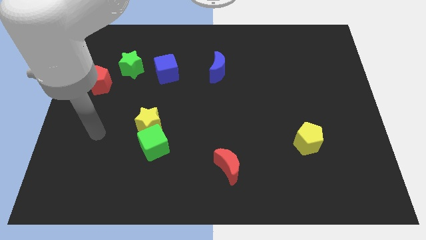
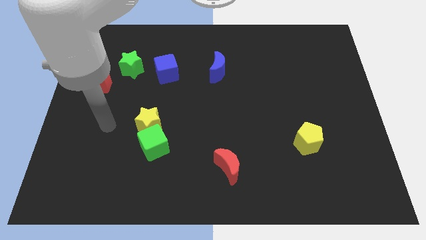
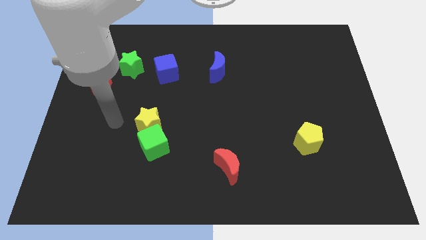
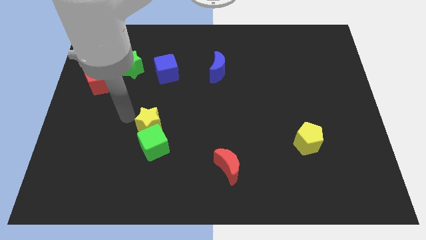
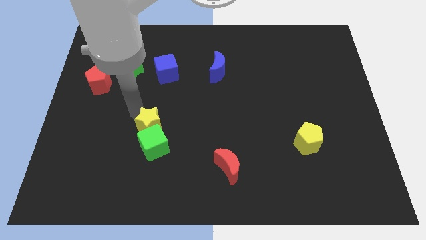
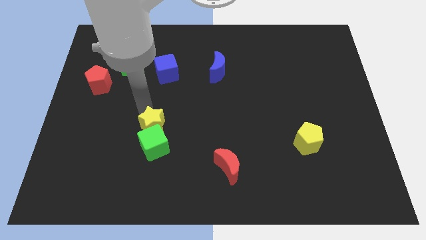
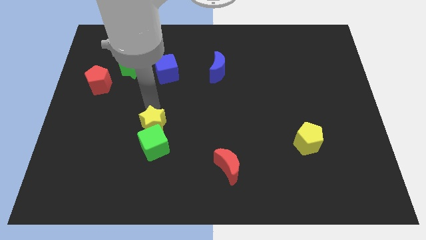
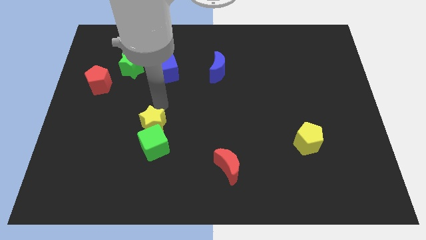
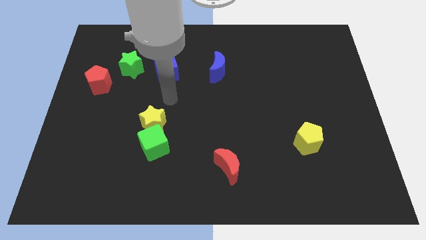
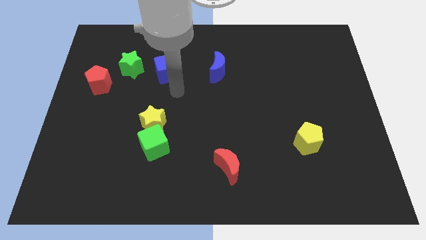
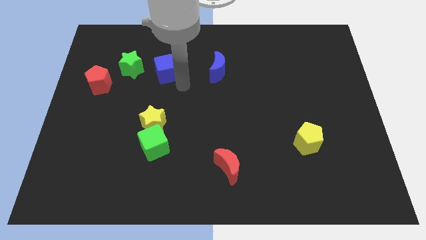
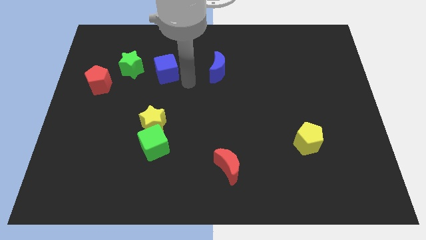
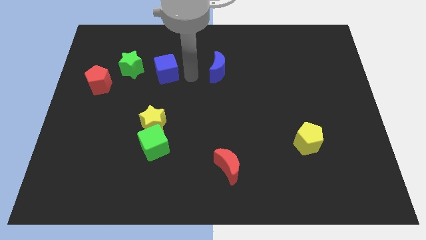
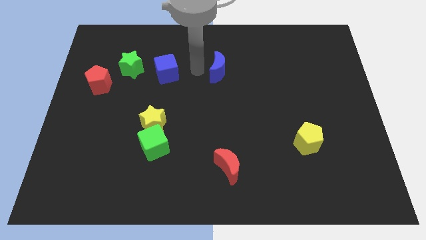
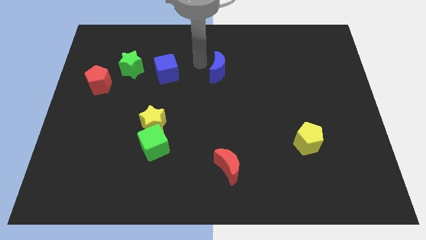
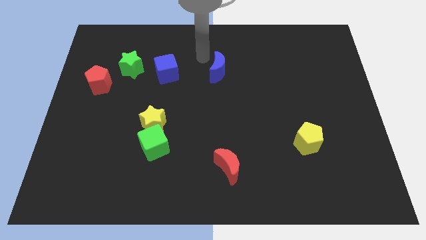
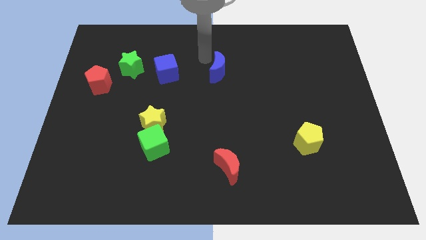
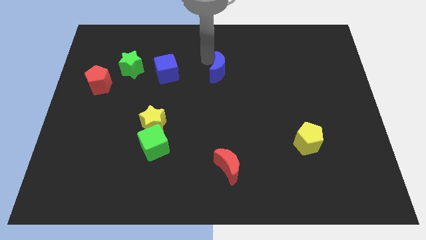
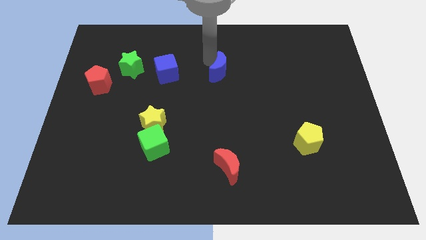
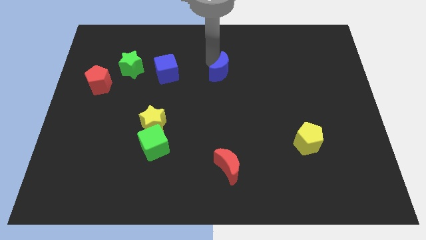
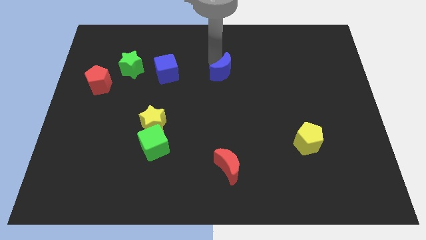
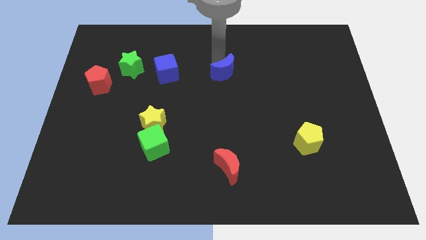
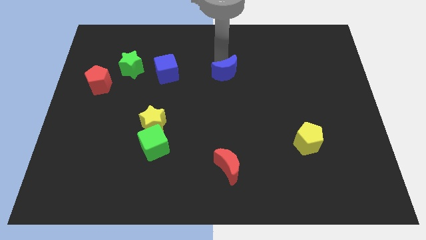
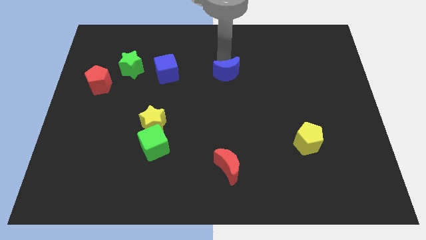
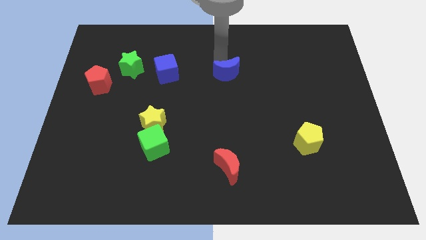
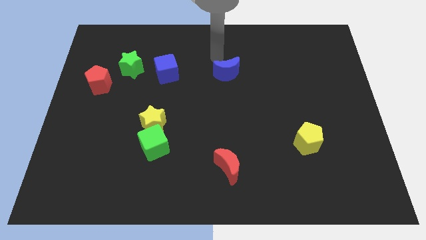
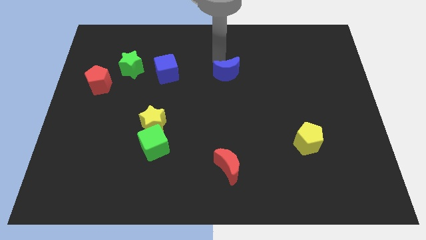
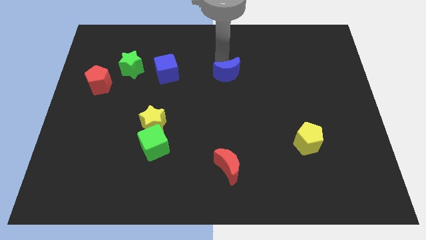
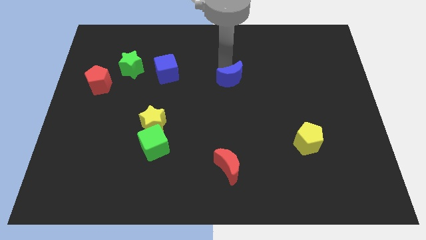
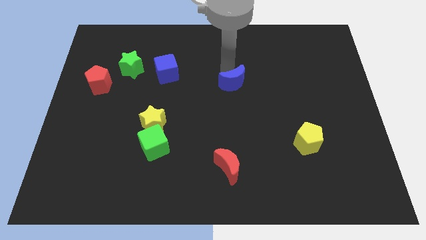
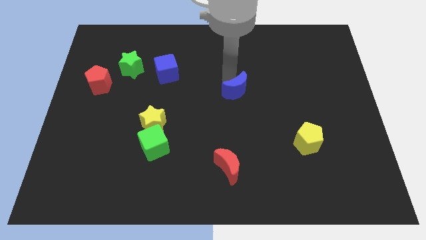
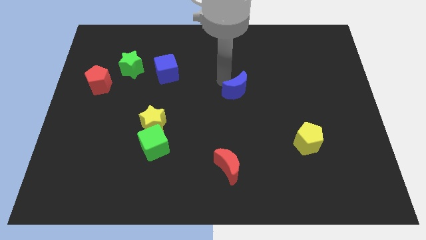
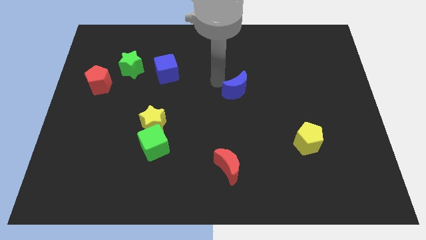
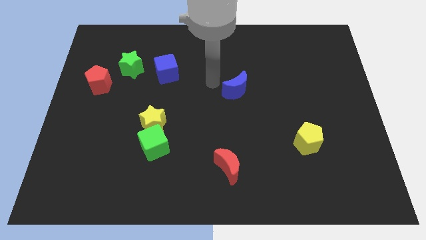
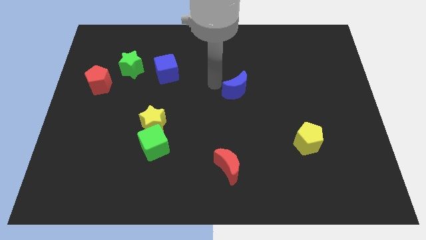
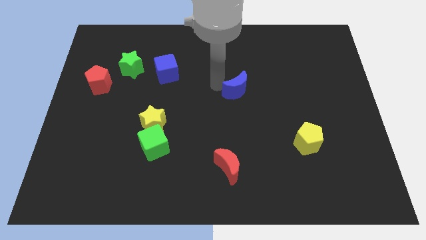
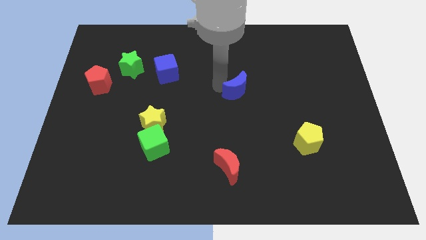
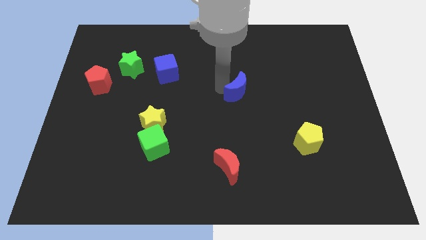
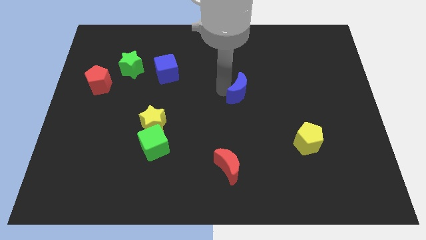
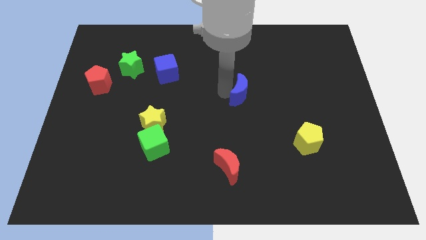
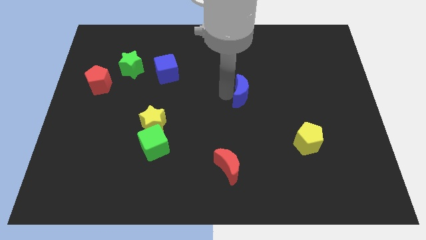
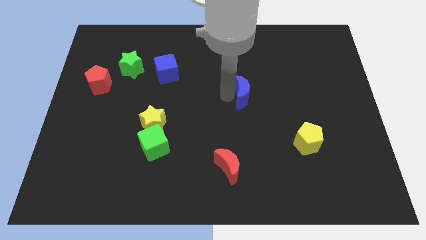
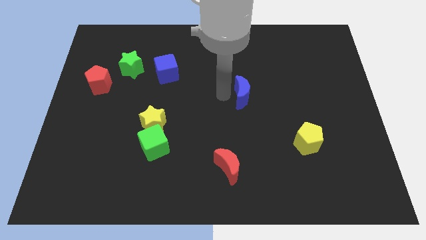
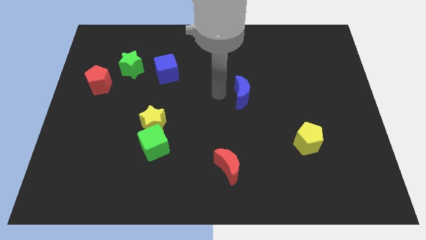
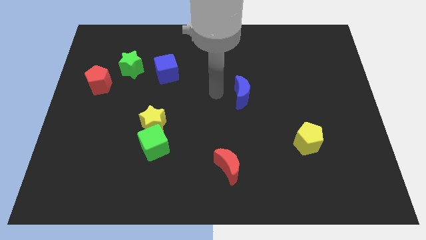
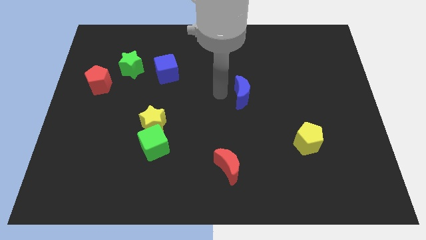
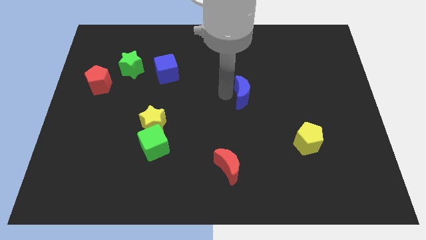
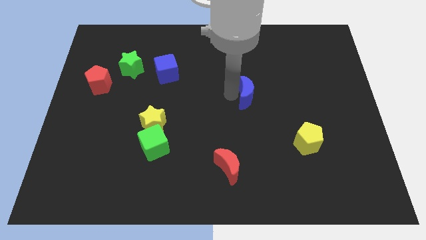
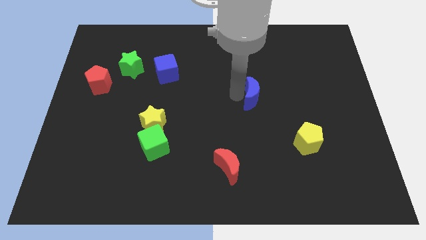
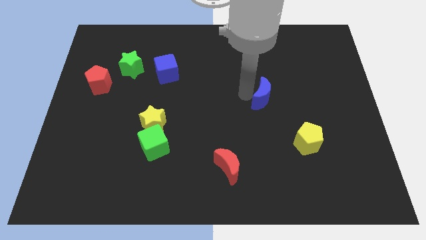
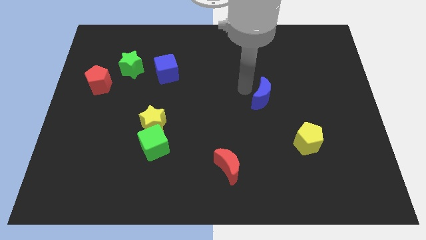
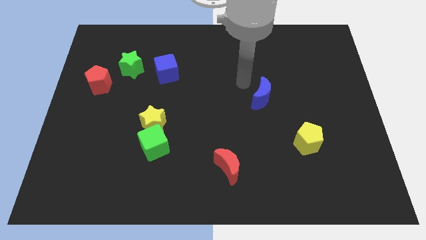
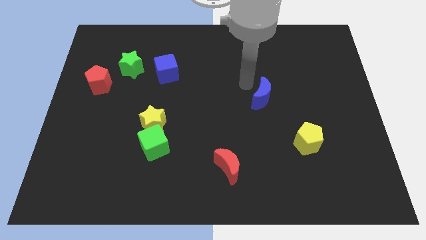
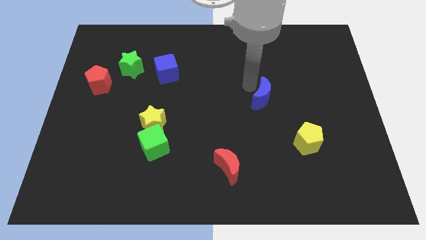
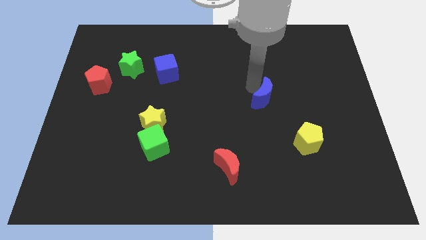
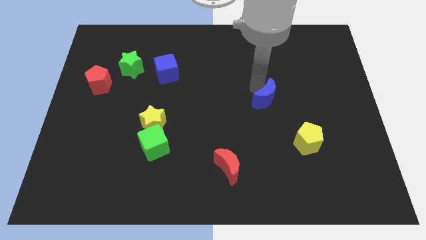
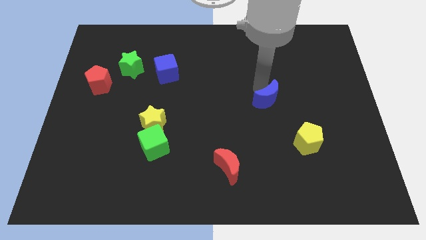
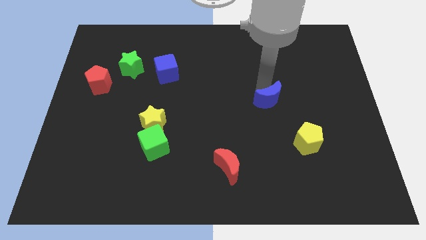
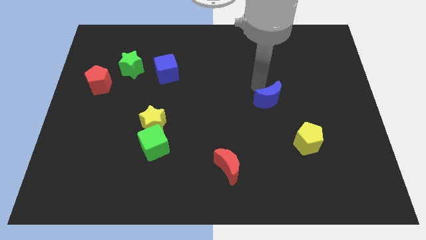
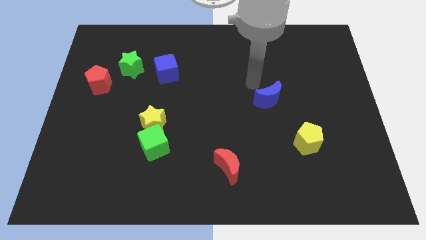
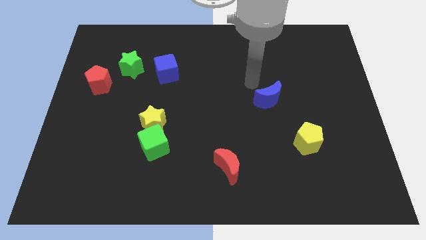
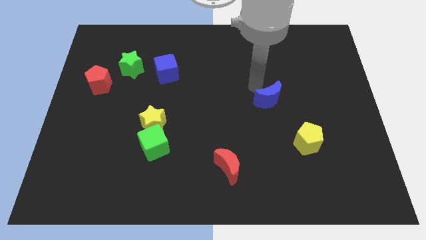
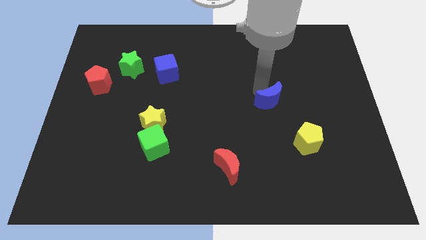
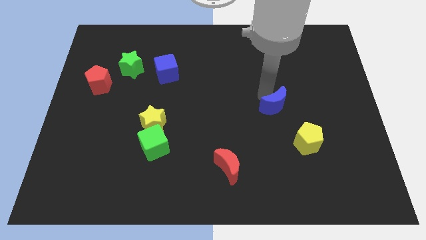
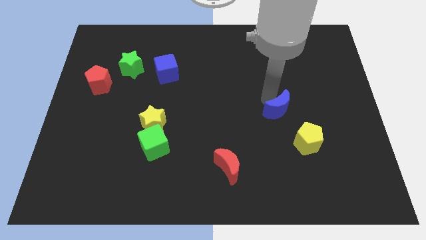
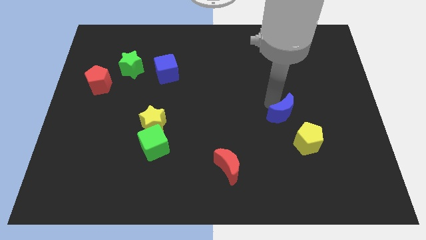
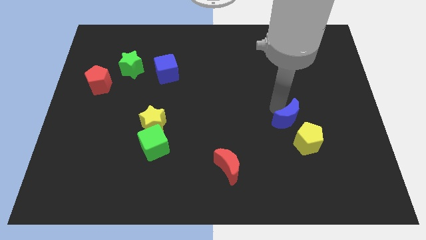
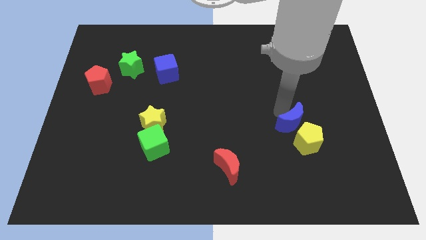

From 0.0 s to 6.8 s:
slide the blue moon next to the yellow pentagon
